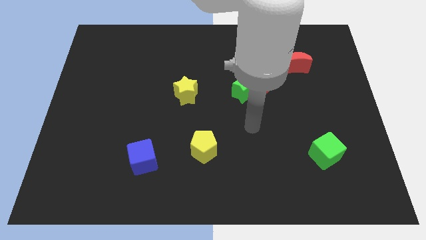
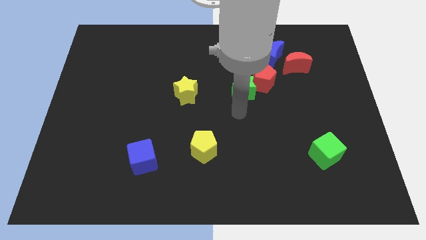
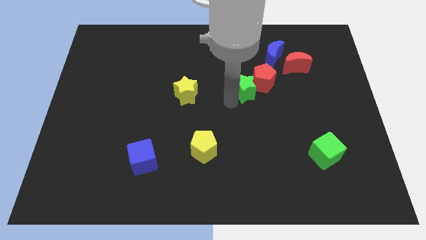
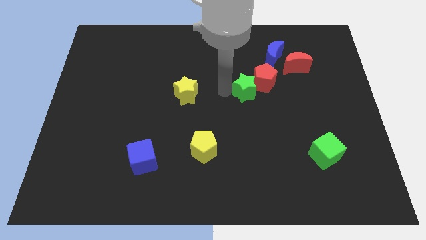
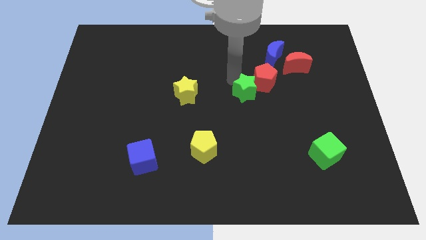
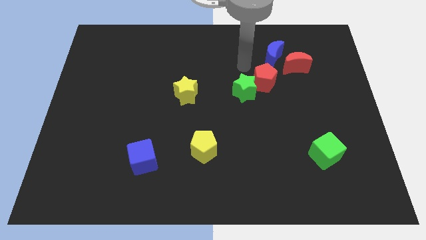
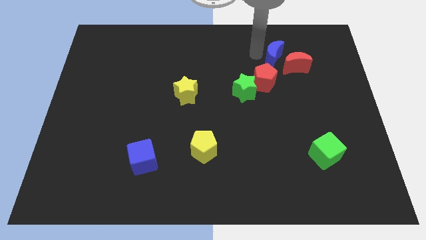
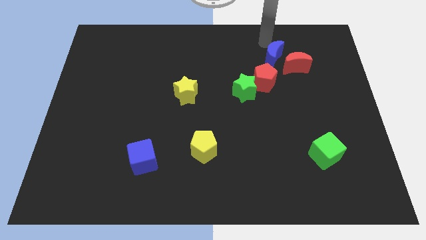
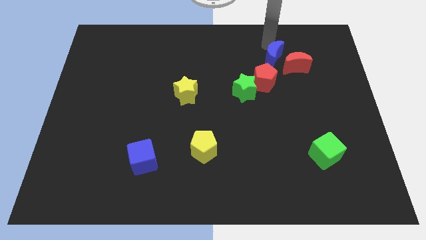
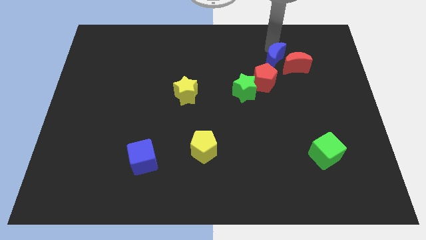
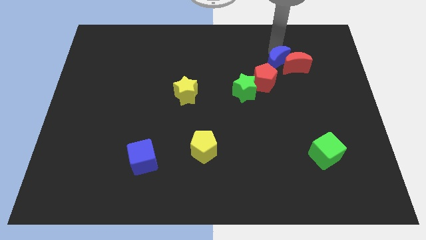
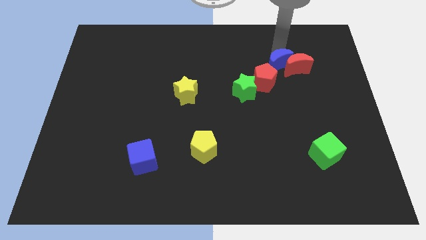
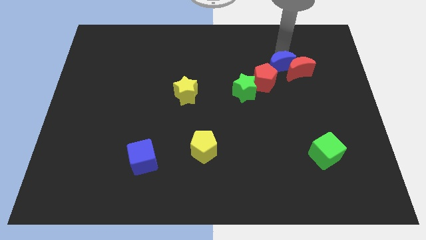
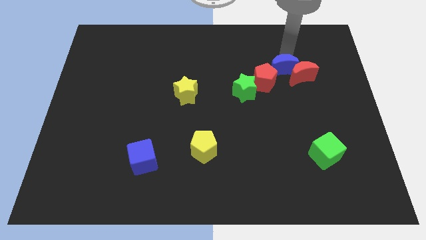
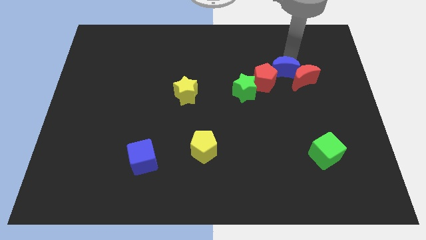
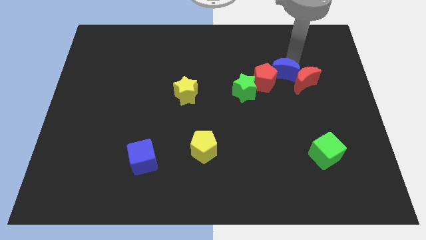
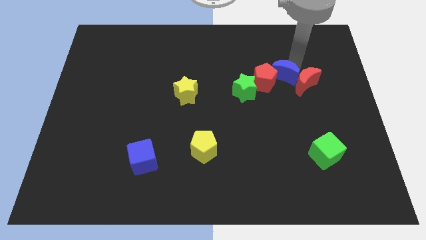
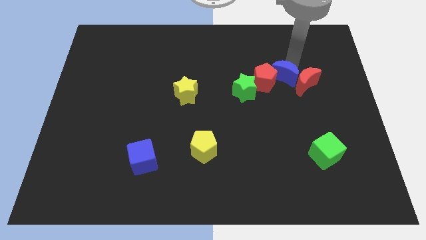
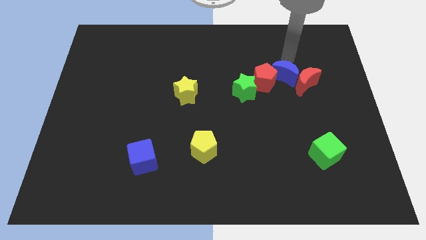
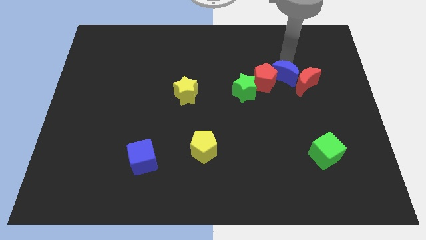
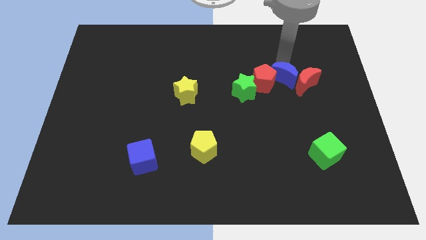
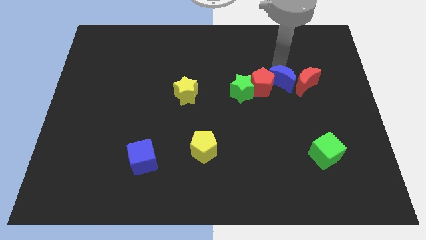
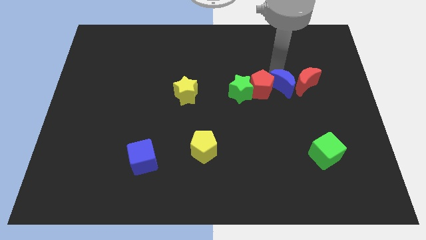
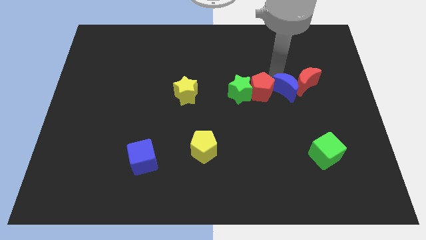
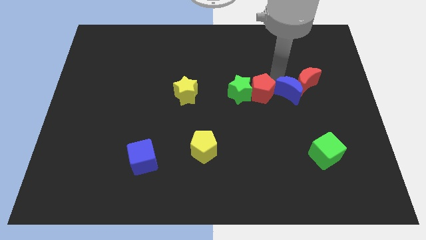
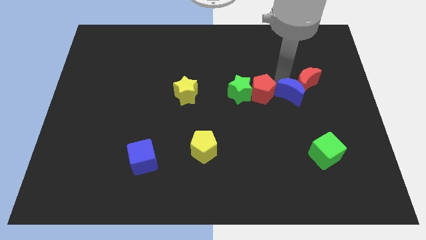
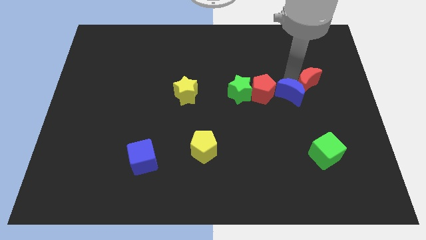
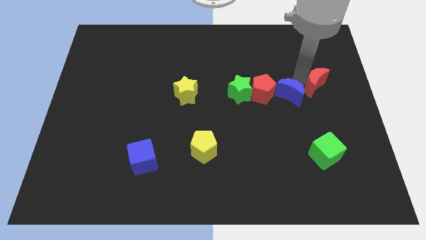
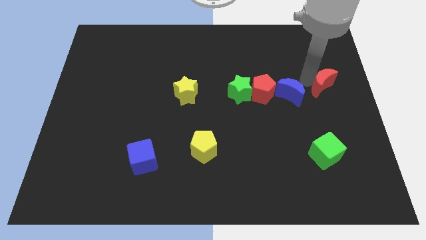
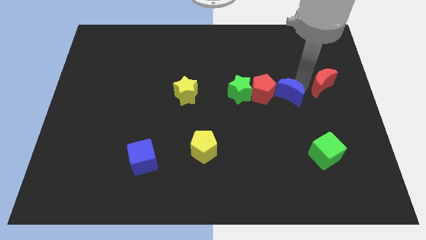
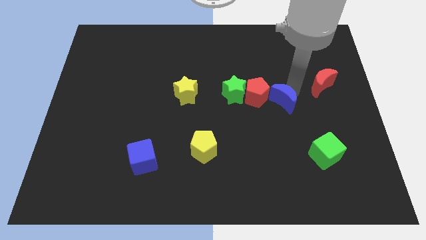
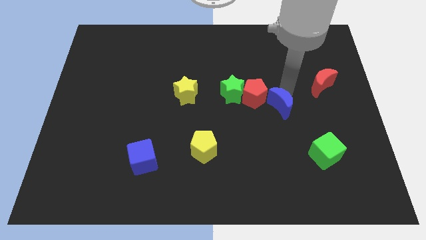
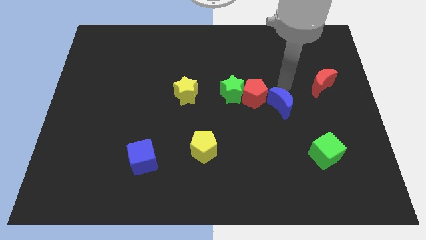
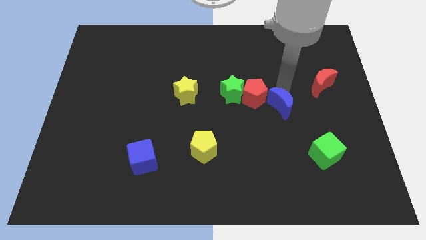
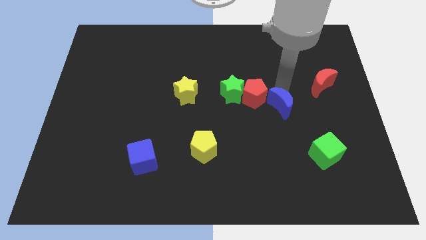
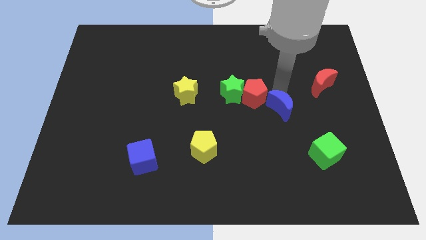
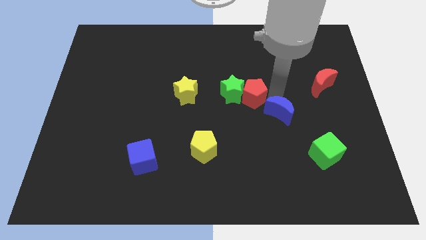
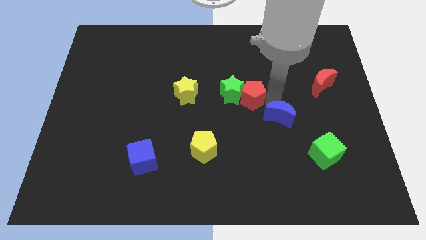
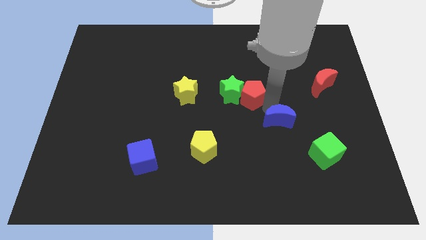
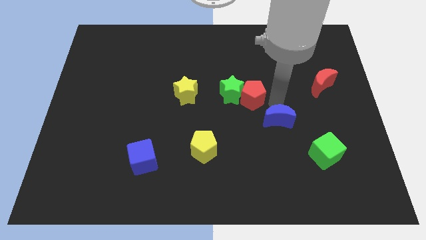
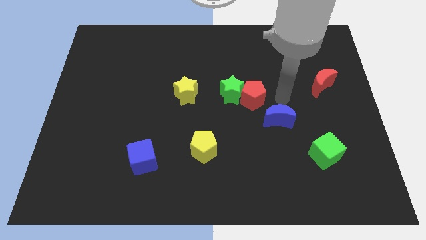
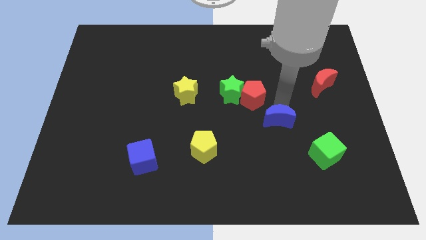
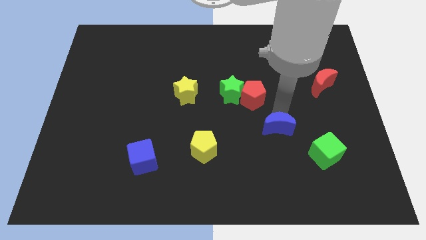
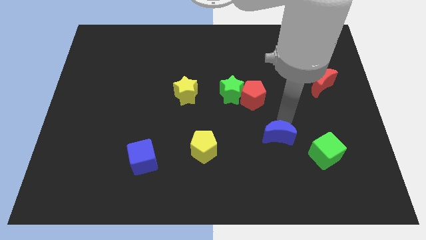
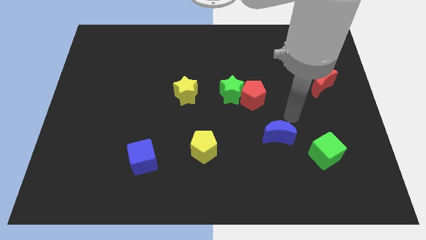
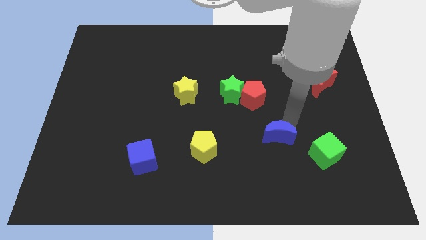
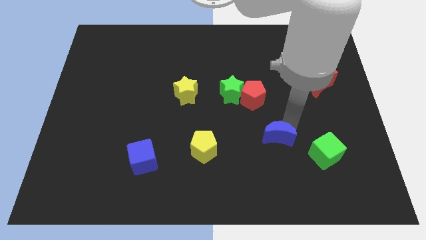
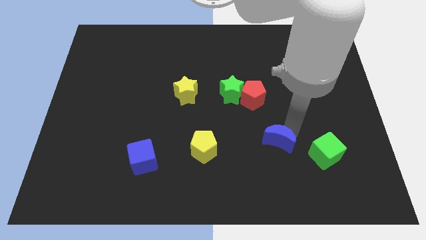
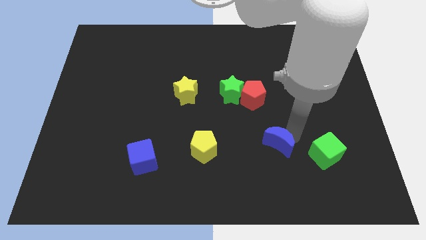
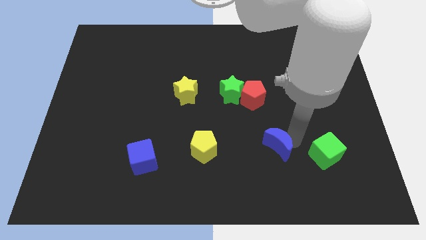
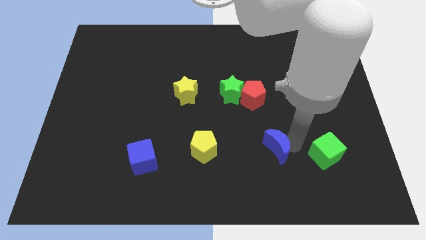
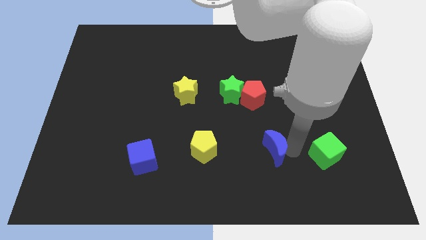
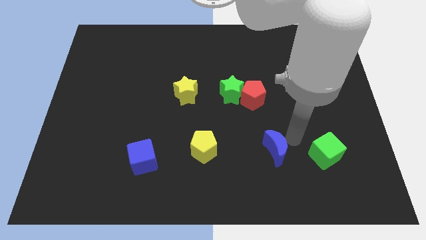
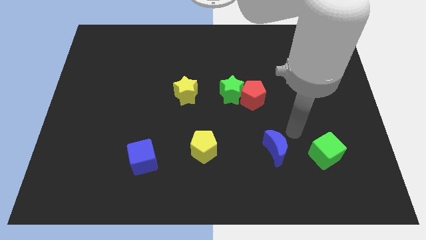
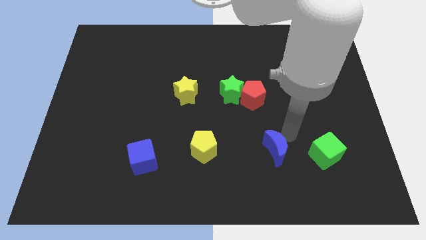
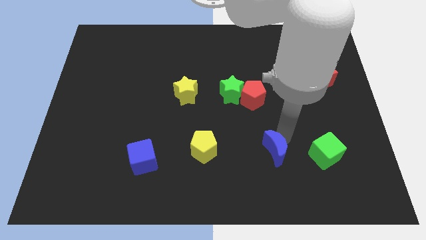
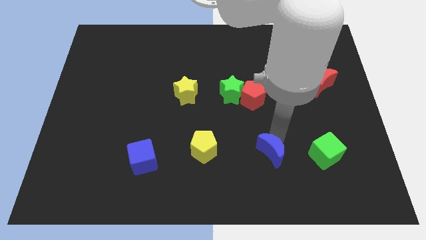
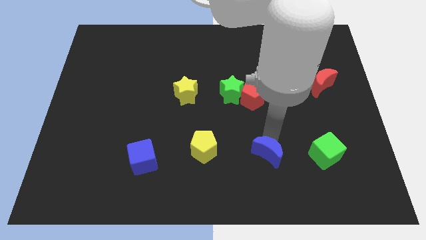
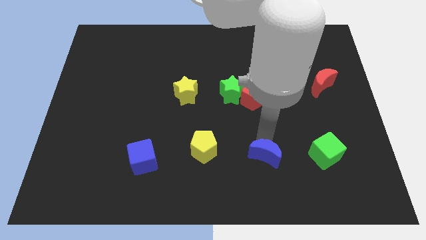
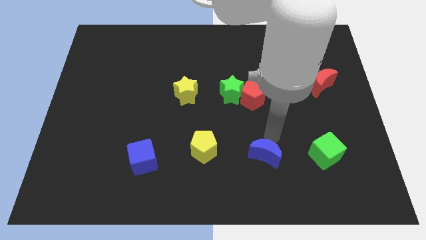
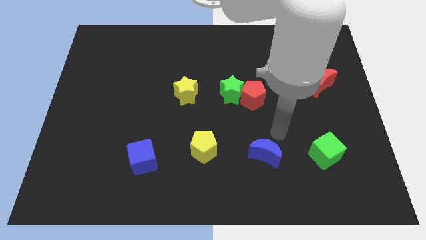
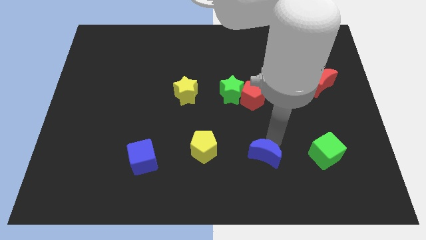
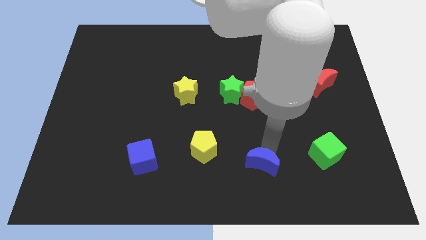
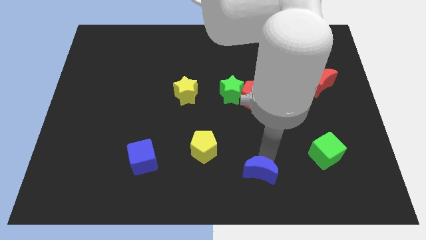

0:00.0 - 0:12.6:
push the blue moon to the bottom side
